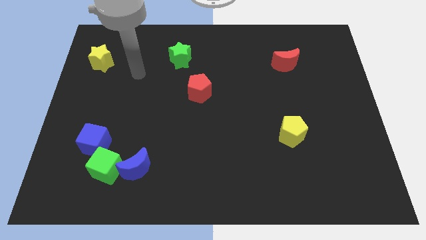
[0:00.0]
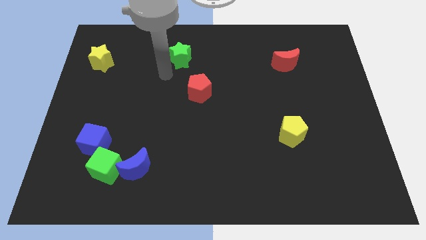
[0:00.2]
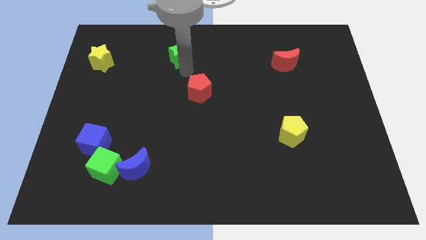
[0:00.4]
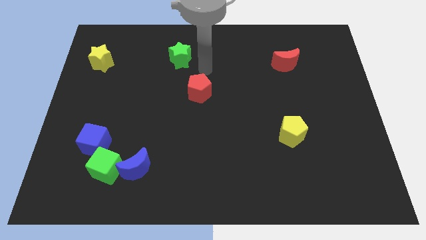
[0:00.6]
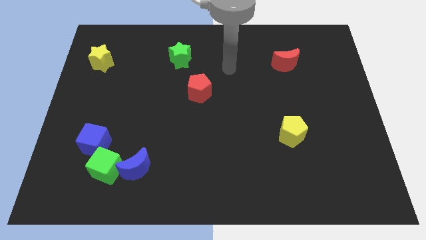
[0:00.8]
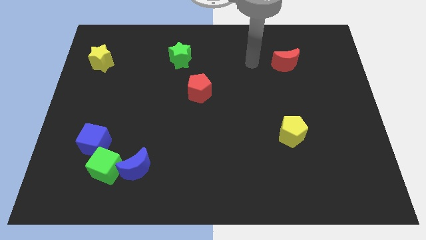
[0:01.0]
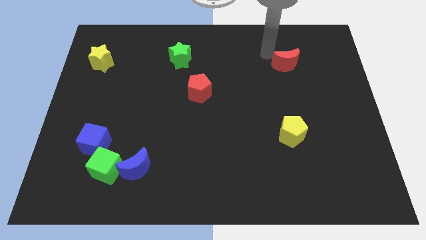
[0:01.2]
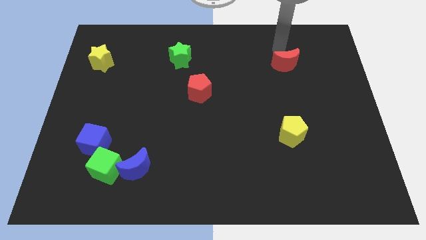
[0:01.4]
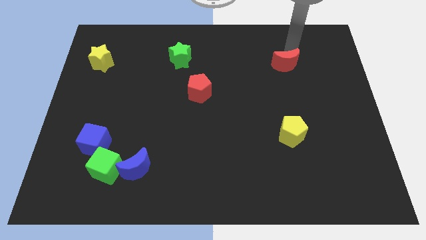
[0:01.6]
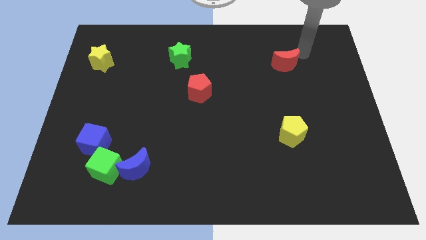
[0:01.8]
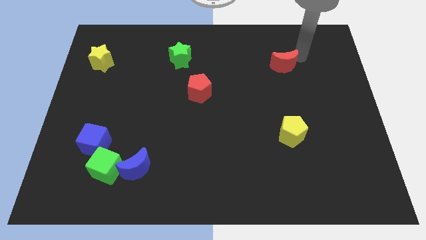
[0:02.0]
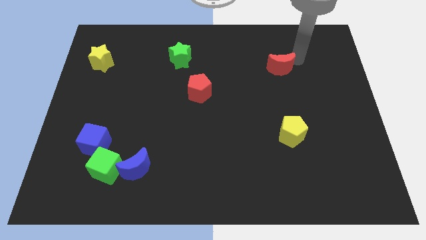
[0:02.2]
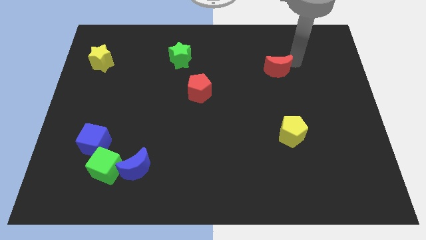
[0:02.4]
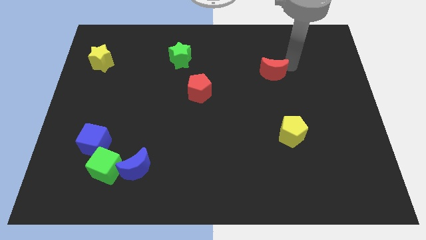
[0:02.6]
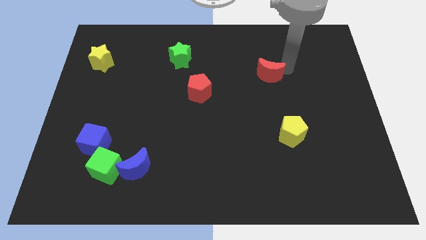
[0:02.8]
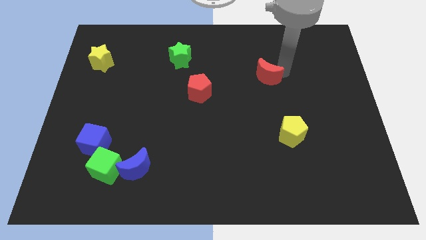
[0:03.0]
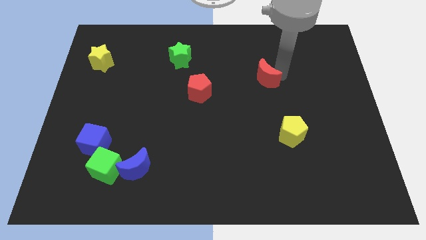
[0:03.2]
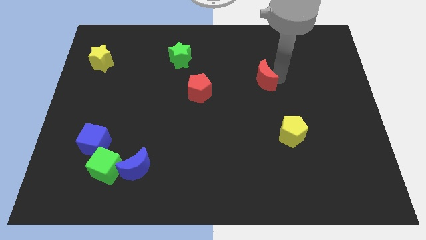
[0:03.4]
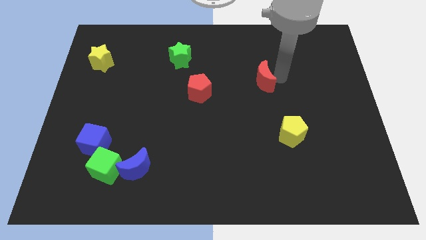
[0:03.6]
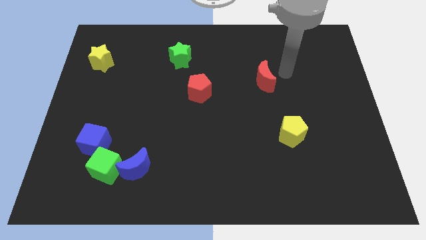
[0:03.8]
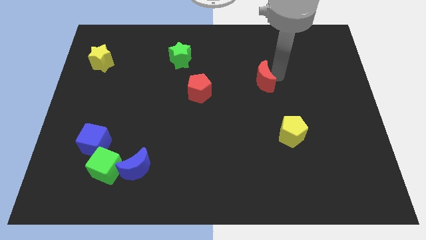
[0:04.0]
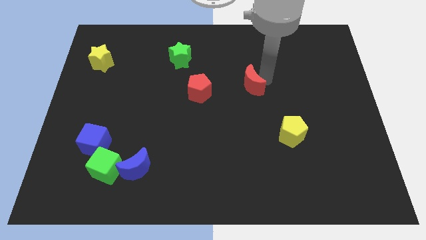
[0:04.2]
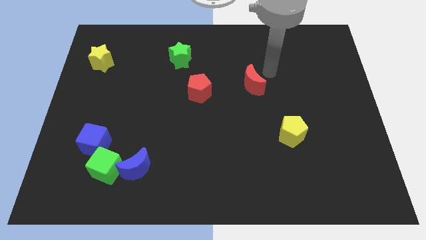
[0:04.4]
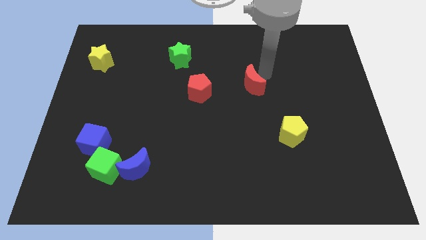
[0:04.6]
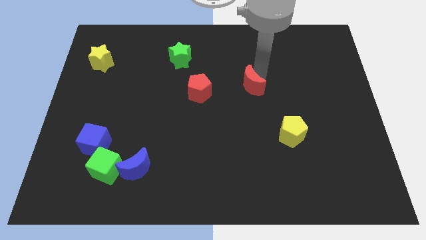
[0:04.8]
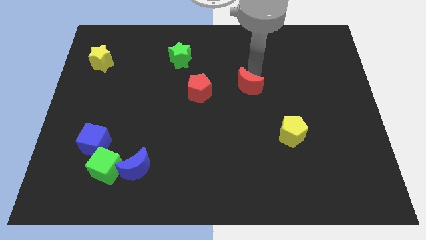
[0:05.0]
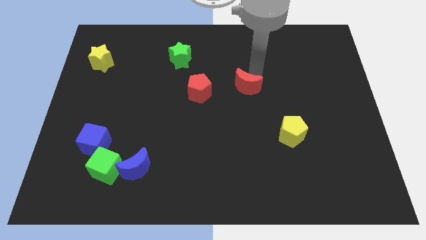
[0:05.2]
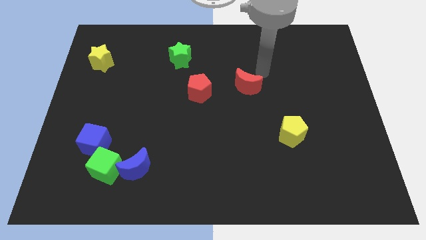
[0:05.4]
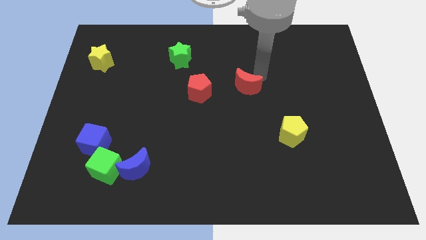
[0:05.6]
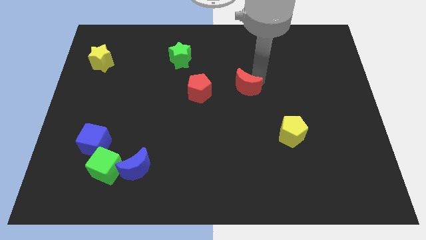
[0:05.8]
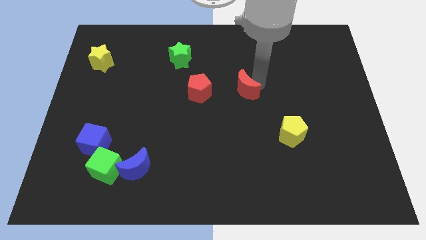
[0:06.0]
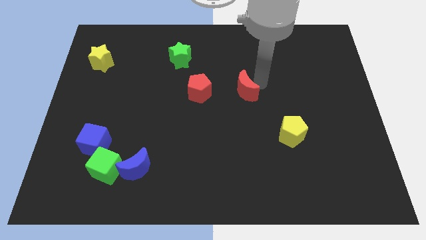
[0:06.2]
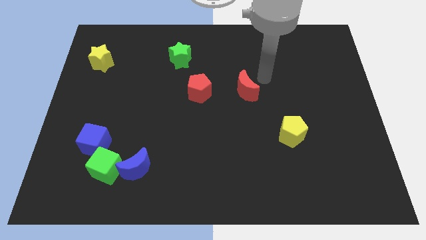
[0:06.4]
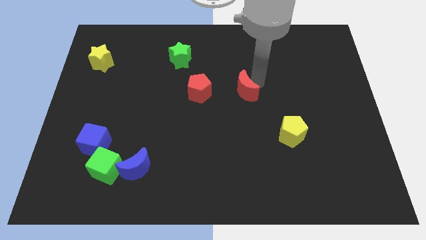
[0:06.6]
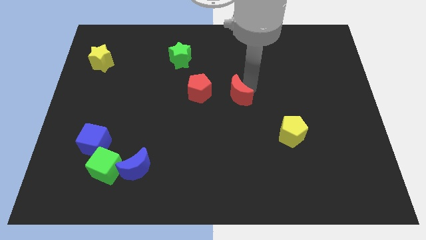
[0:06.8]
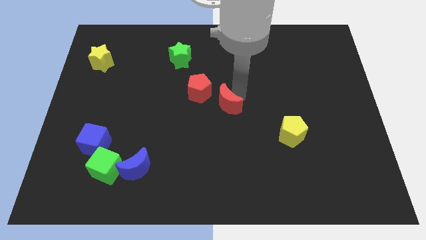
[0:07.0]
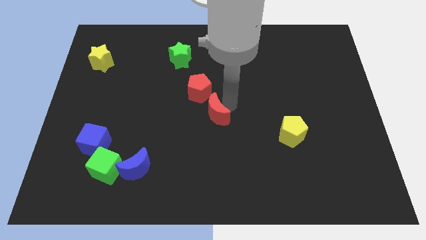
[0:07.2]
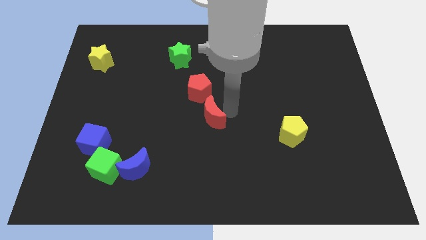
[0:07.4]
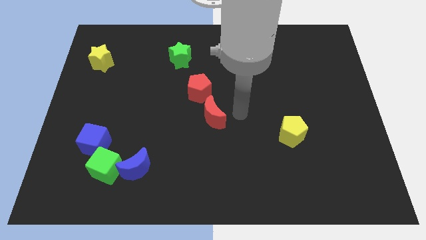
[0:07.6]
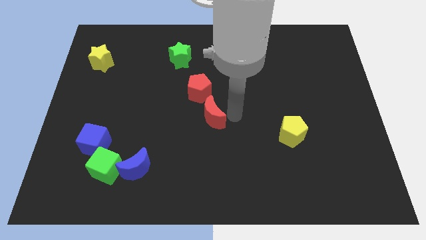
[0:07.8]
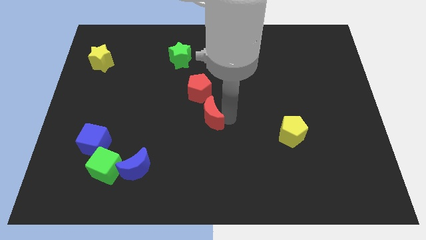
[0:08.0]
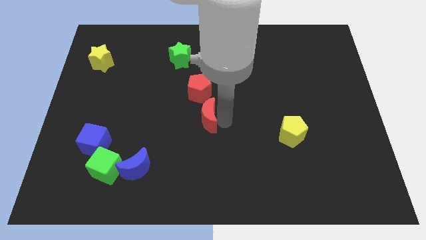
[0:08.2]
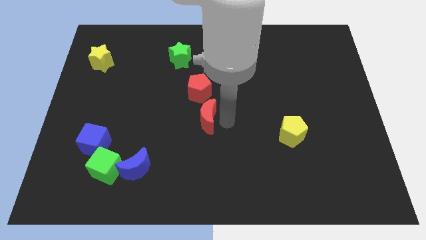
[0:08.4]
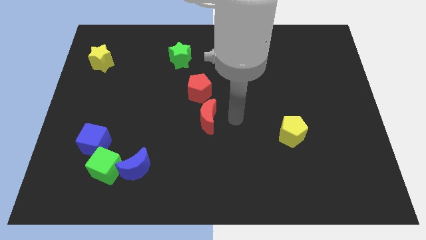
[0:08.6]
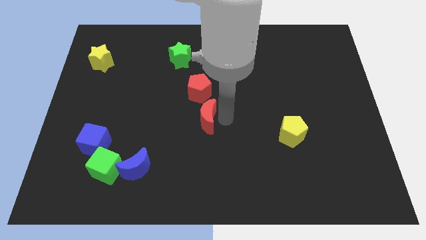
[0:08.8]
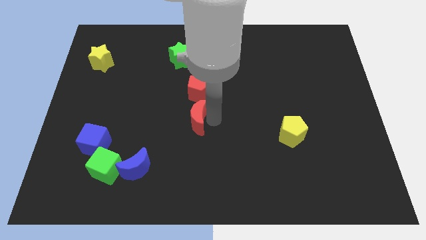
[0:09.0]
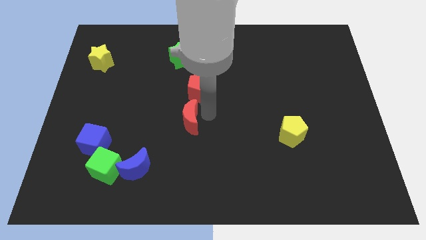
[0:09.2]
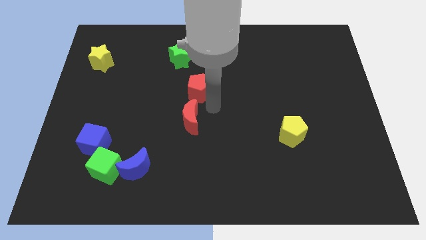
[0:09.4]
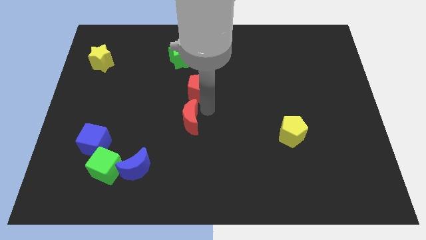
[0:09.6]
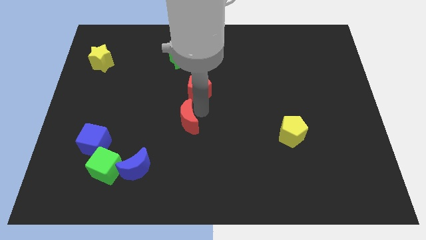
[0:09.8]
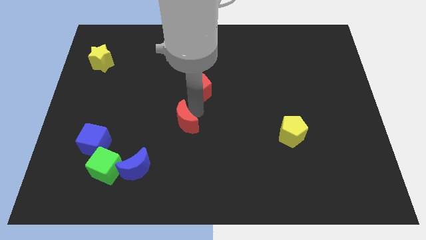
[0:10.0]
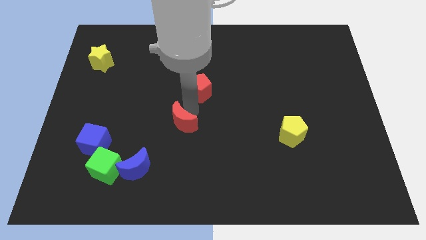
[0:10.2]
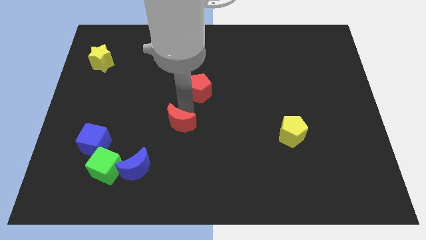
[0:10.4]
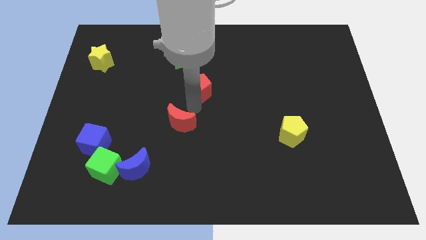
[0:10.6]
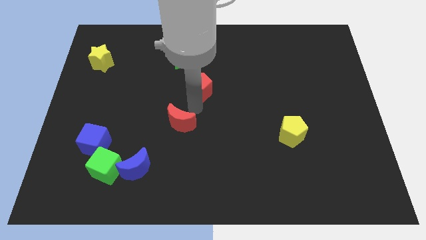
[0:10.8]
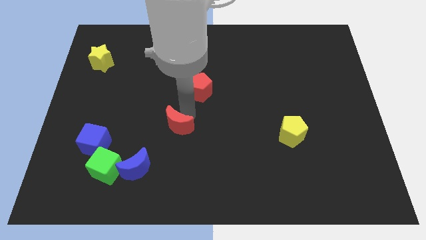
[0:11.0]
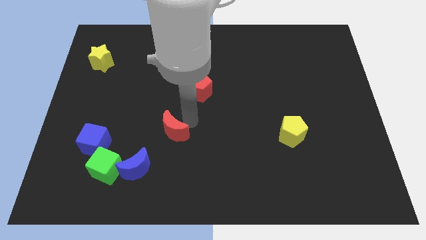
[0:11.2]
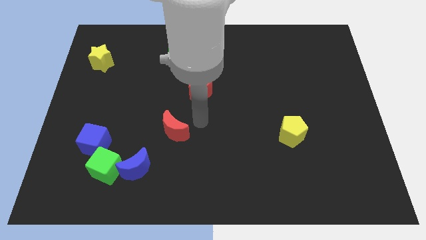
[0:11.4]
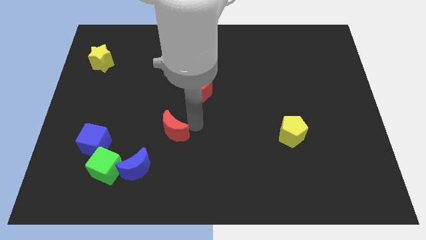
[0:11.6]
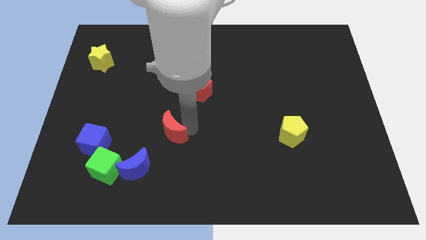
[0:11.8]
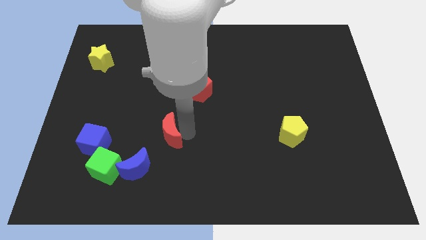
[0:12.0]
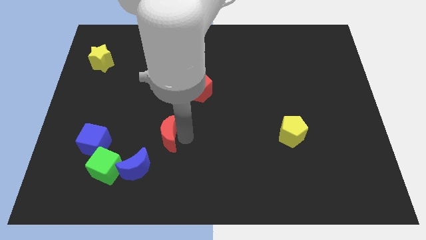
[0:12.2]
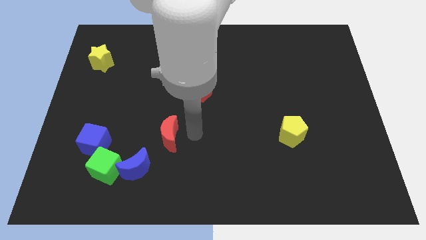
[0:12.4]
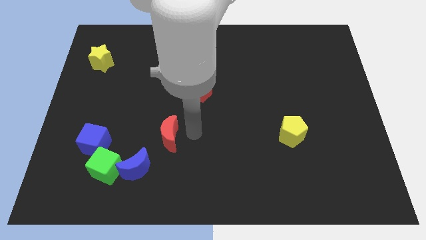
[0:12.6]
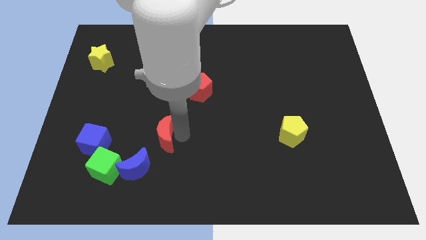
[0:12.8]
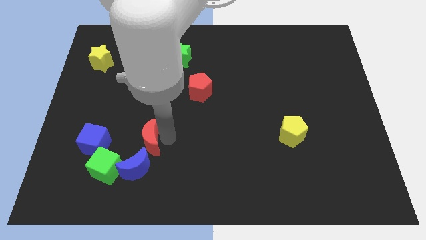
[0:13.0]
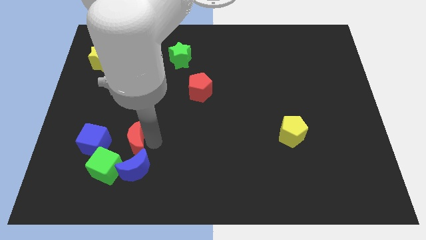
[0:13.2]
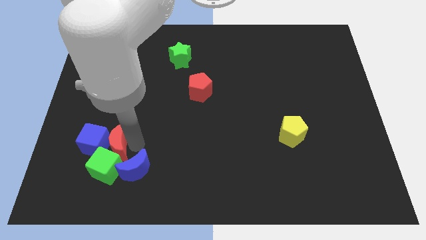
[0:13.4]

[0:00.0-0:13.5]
slide the red moon towards the blue cube
